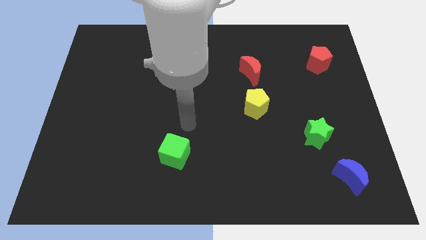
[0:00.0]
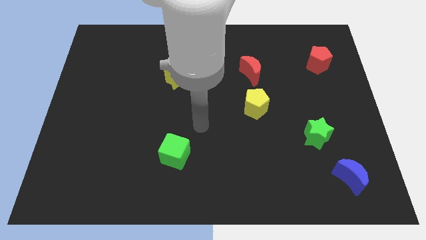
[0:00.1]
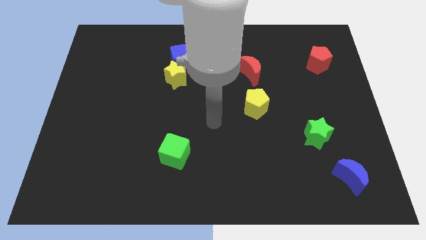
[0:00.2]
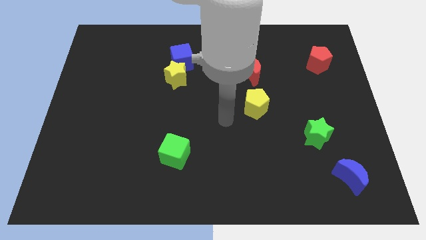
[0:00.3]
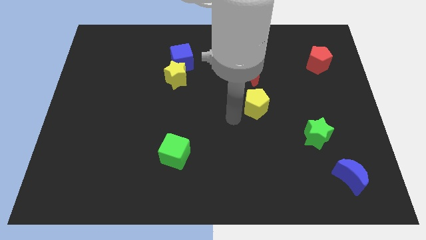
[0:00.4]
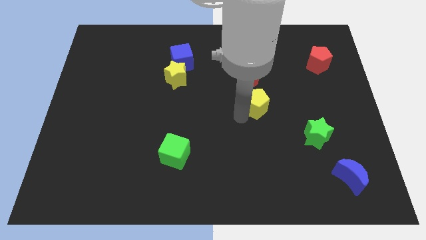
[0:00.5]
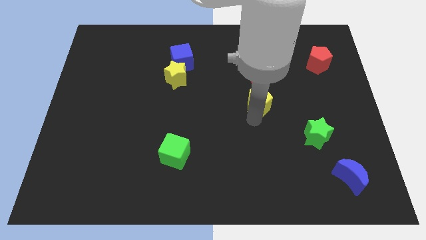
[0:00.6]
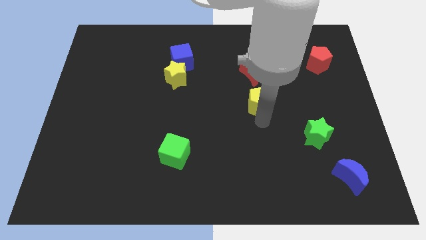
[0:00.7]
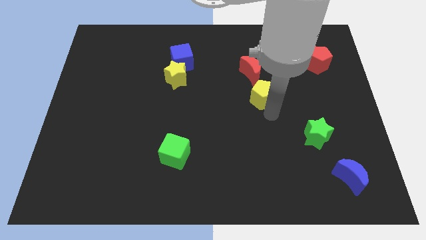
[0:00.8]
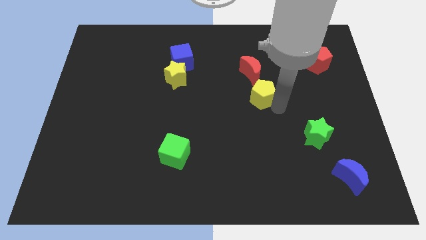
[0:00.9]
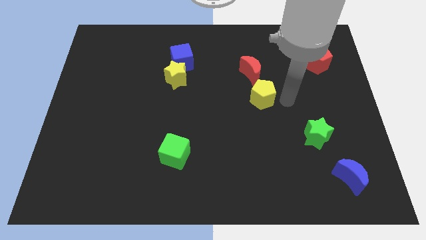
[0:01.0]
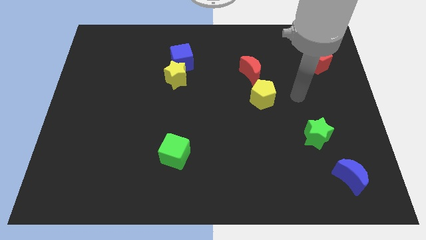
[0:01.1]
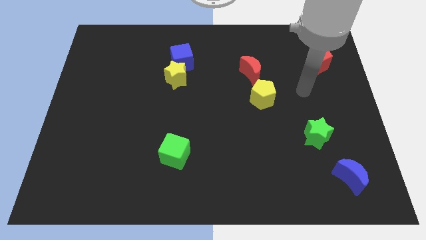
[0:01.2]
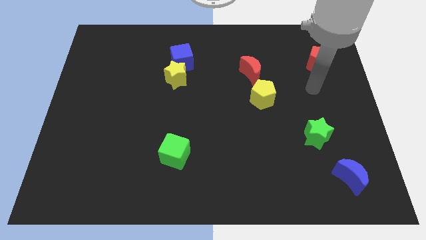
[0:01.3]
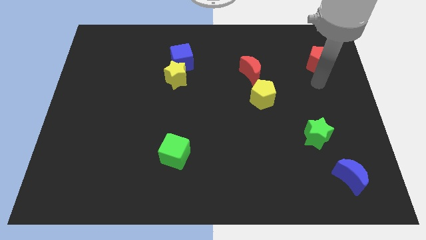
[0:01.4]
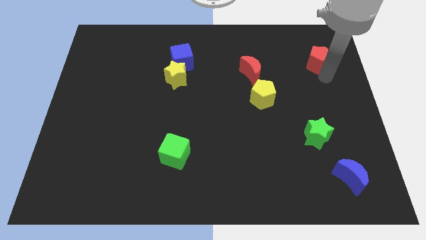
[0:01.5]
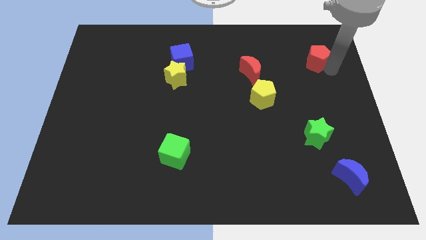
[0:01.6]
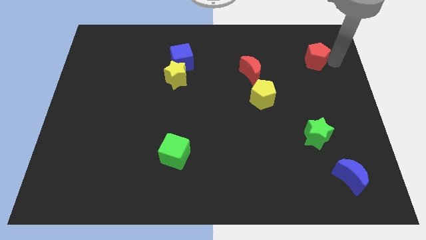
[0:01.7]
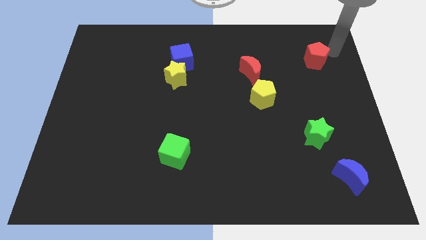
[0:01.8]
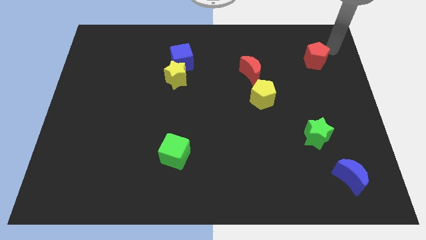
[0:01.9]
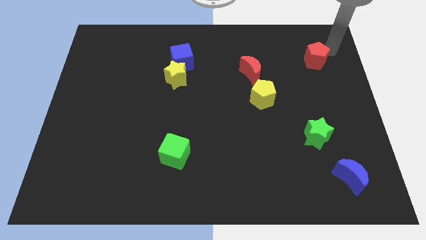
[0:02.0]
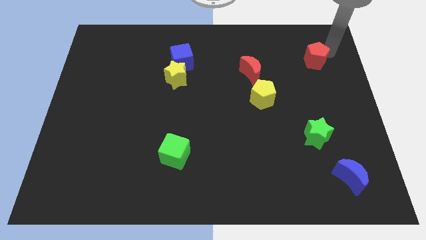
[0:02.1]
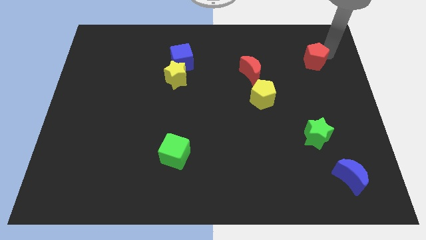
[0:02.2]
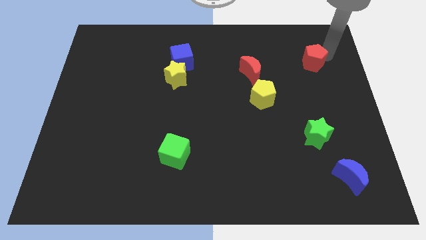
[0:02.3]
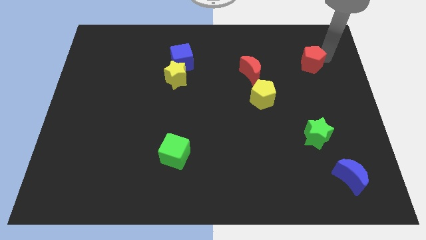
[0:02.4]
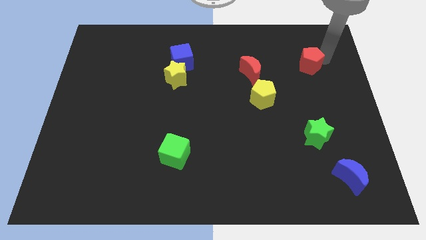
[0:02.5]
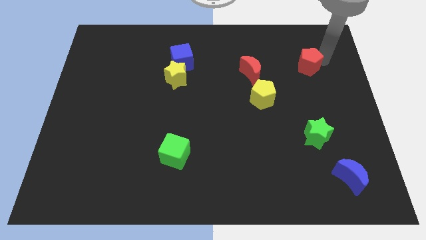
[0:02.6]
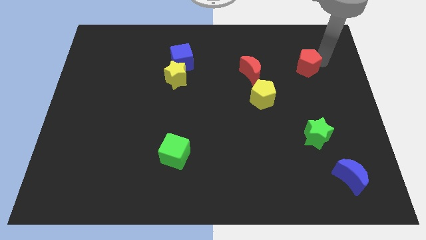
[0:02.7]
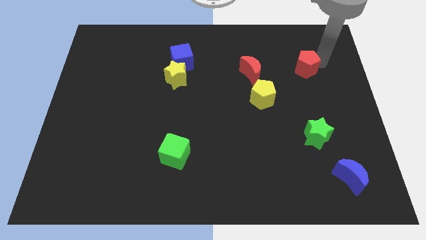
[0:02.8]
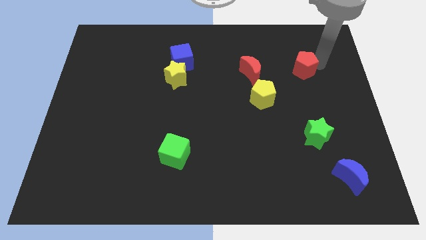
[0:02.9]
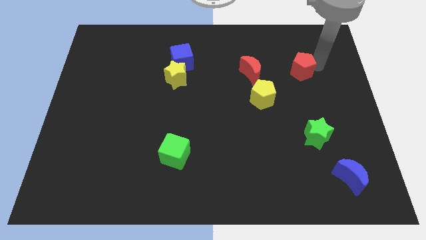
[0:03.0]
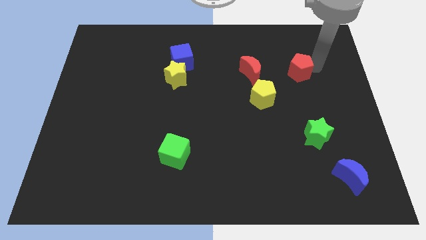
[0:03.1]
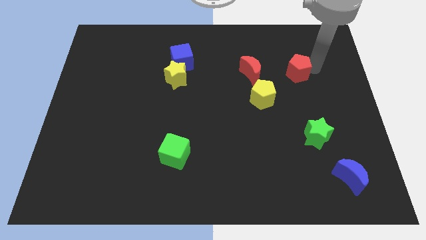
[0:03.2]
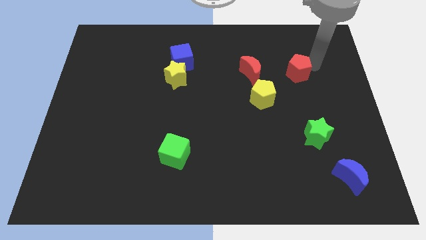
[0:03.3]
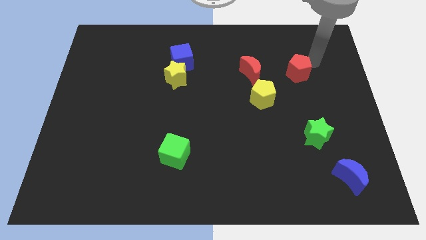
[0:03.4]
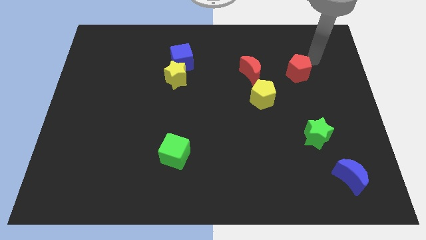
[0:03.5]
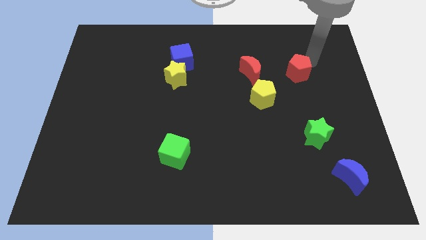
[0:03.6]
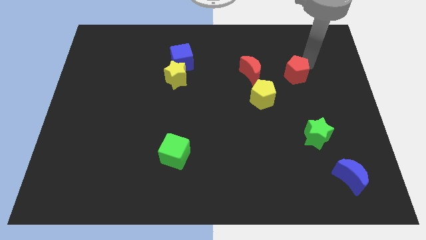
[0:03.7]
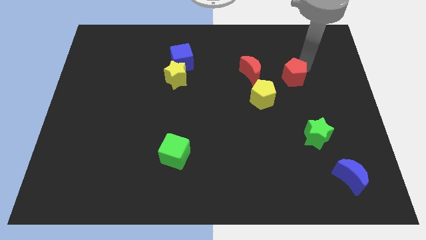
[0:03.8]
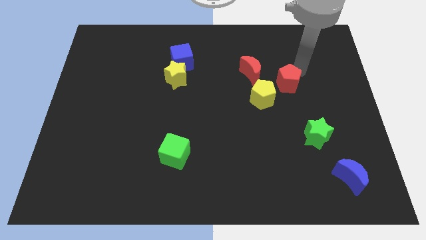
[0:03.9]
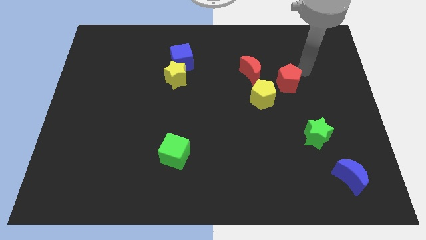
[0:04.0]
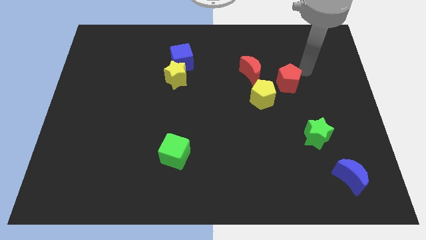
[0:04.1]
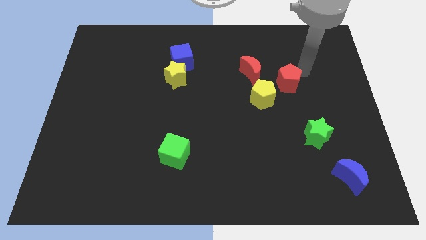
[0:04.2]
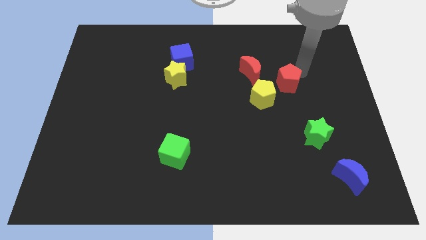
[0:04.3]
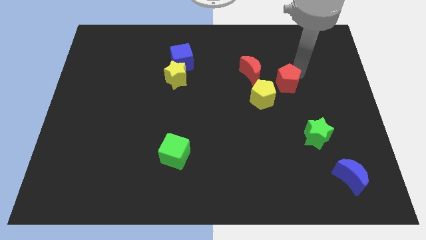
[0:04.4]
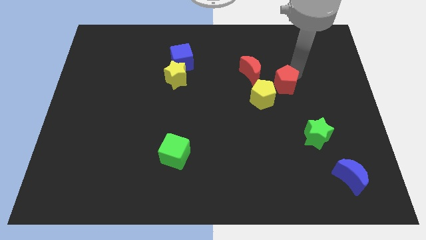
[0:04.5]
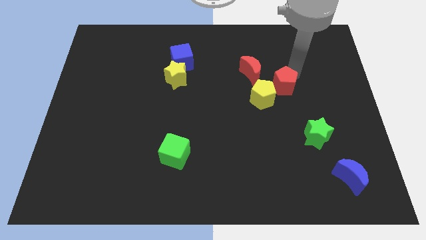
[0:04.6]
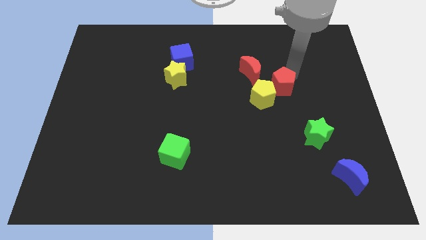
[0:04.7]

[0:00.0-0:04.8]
put the red pentagon towards the yellow pentagon

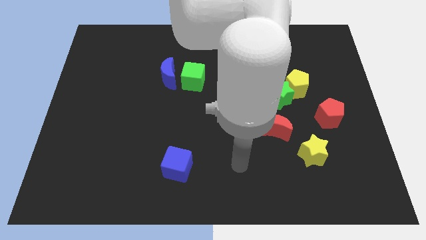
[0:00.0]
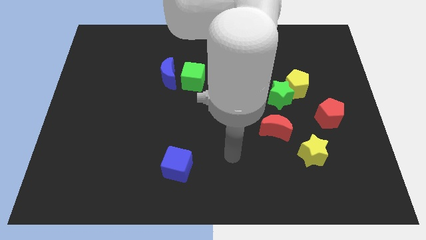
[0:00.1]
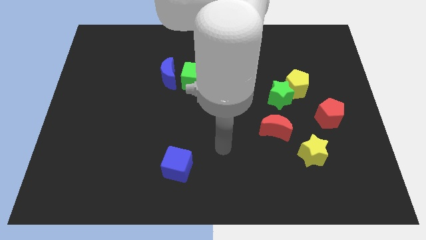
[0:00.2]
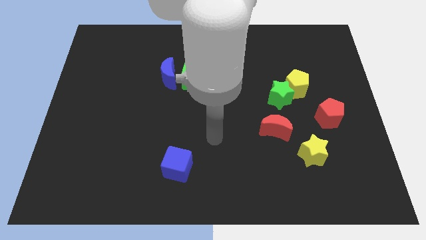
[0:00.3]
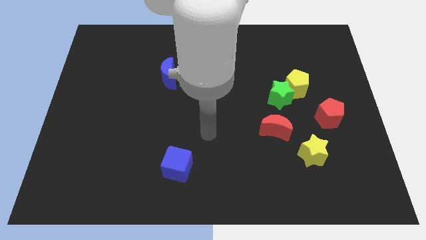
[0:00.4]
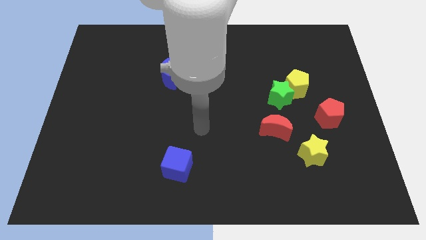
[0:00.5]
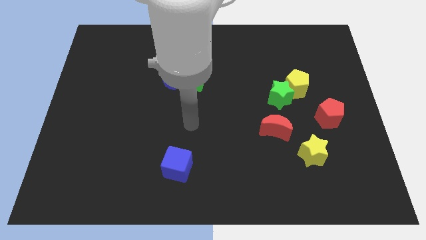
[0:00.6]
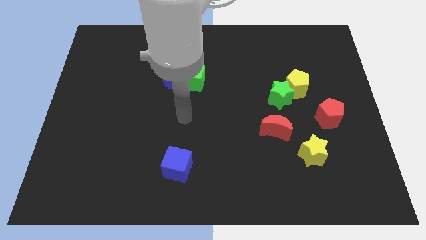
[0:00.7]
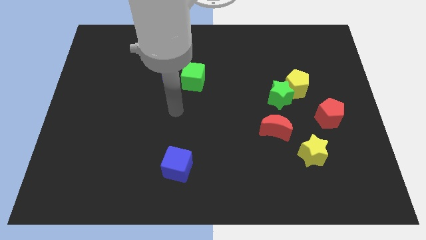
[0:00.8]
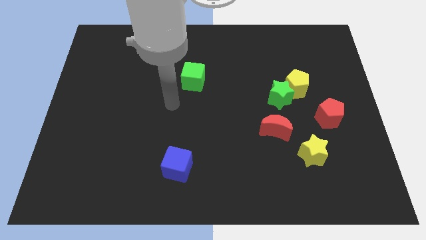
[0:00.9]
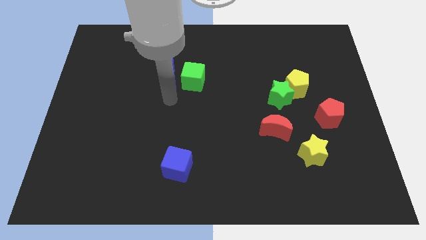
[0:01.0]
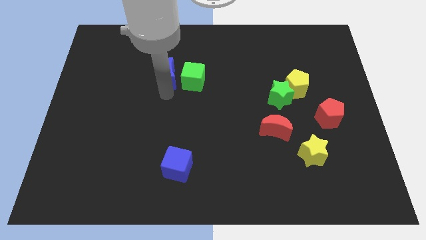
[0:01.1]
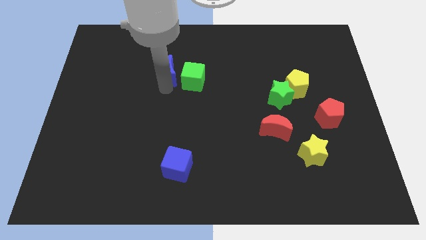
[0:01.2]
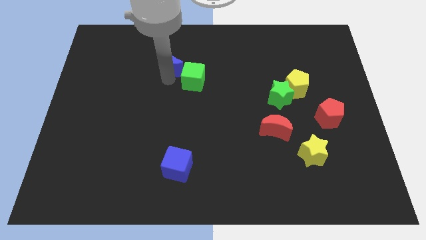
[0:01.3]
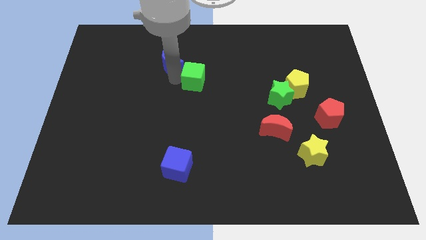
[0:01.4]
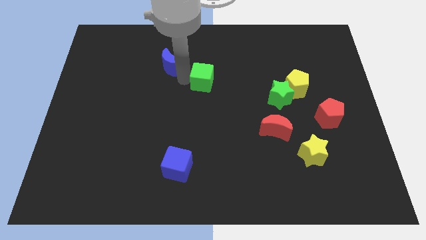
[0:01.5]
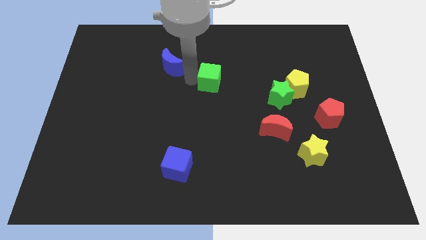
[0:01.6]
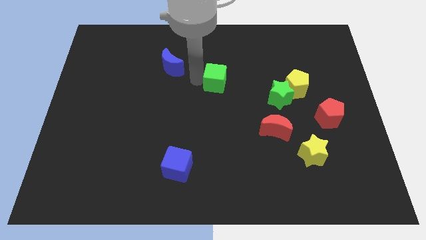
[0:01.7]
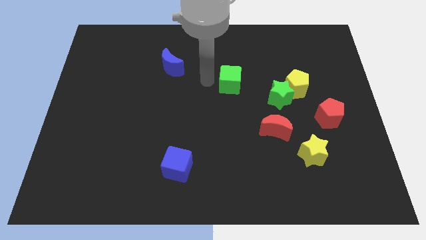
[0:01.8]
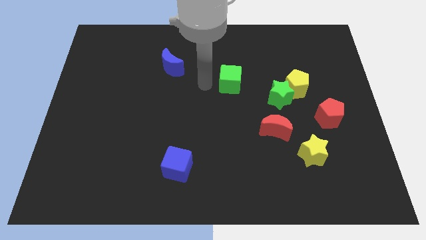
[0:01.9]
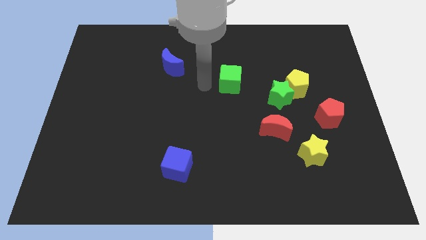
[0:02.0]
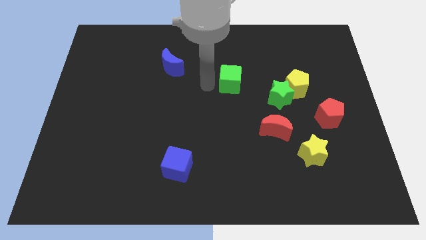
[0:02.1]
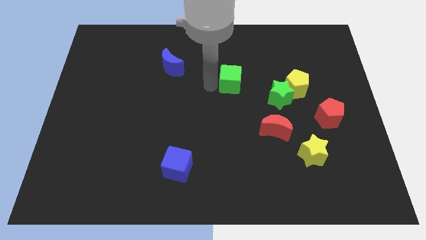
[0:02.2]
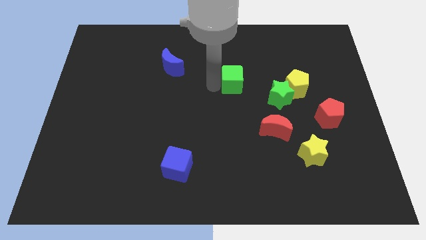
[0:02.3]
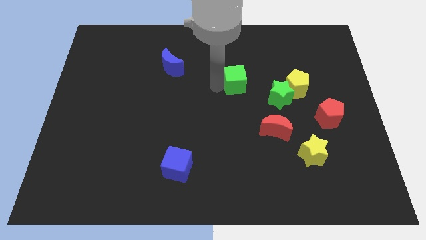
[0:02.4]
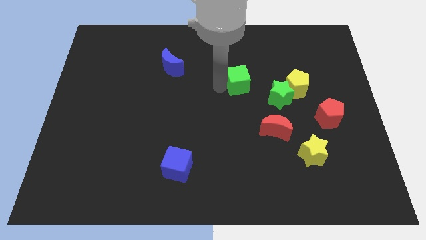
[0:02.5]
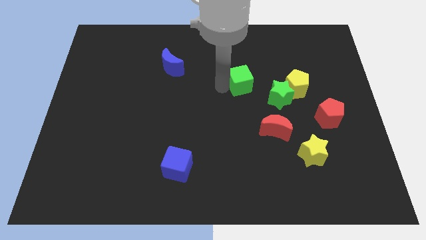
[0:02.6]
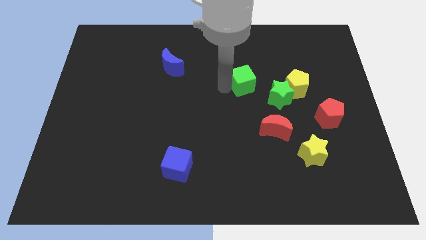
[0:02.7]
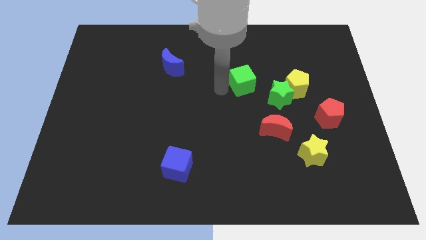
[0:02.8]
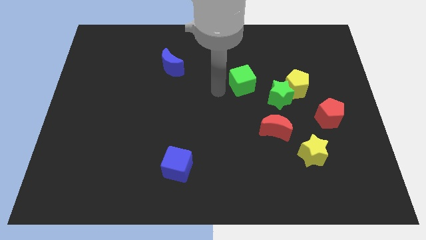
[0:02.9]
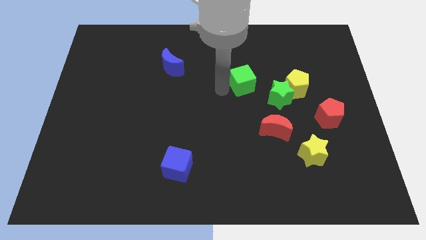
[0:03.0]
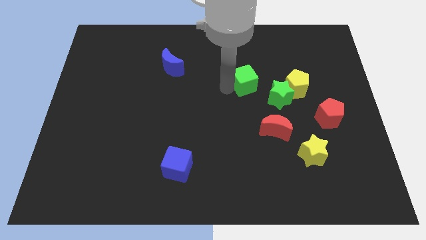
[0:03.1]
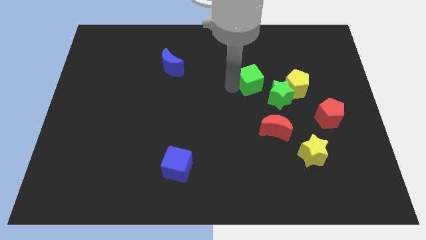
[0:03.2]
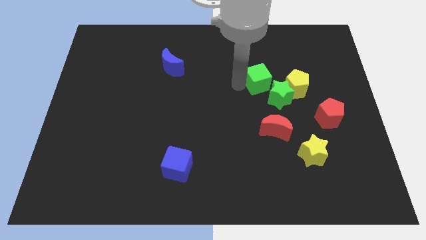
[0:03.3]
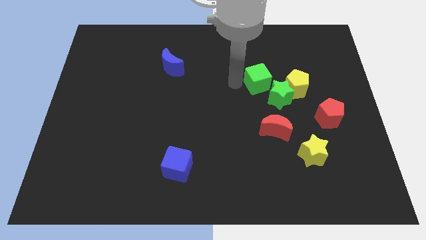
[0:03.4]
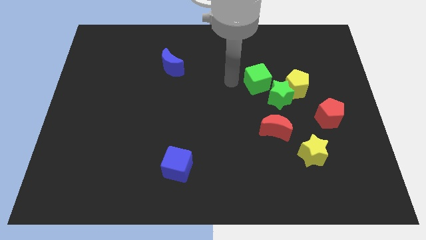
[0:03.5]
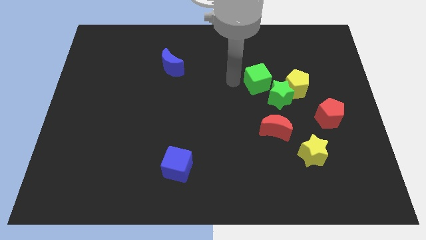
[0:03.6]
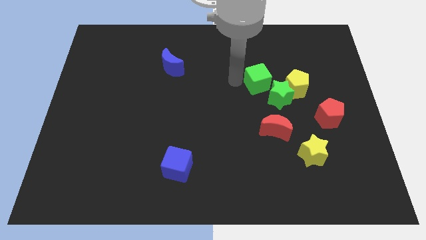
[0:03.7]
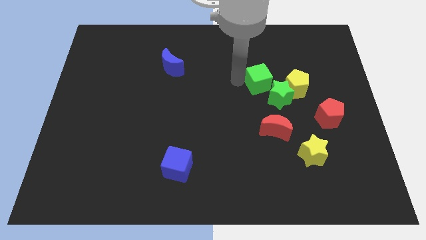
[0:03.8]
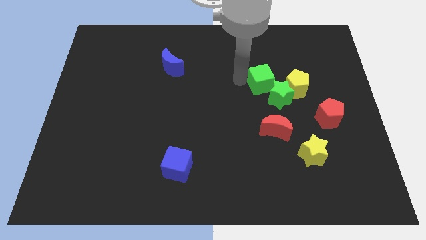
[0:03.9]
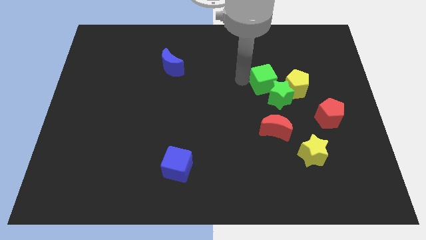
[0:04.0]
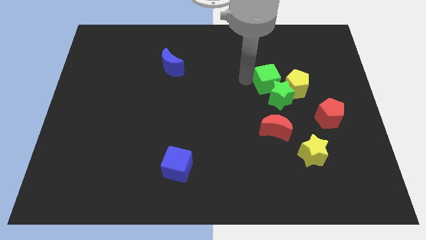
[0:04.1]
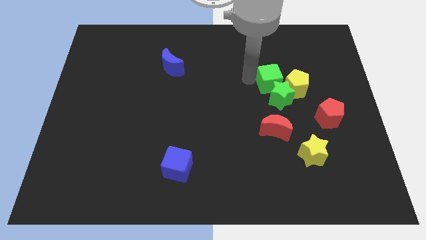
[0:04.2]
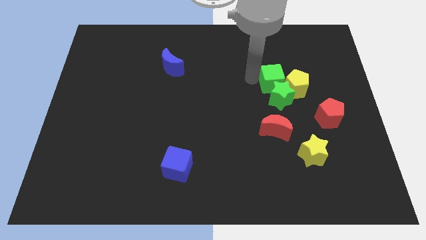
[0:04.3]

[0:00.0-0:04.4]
slide the green cube towards the yellow pentagon
